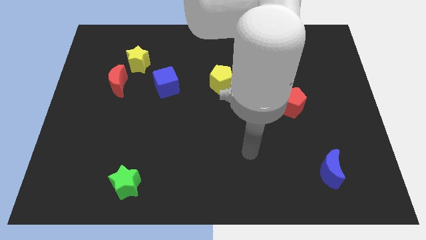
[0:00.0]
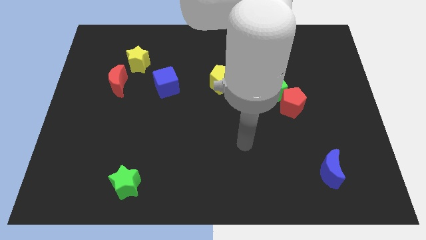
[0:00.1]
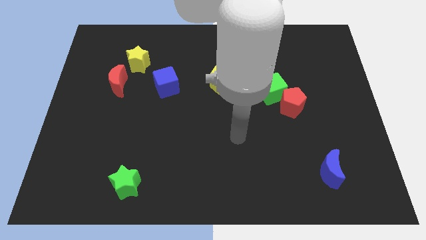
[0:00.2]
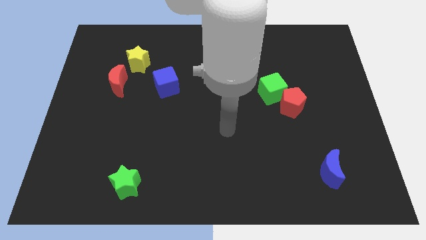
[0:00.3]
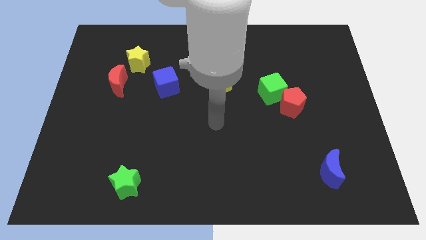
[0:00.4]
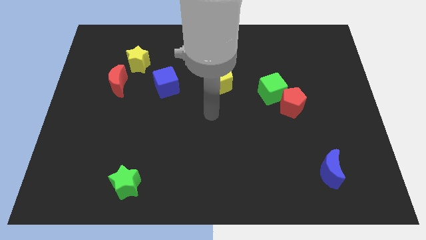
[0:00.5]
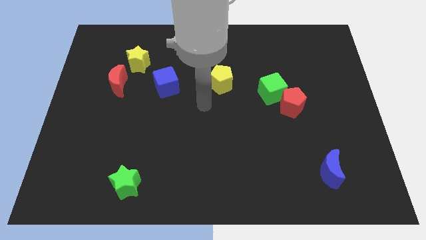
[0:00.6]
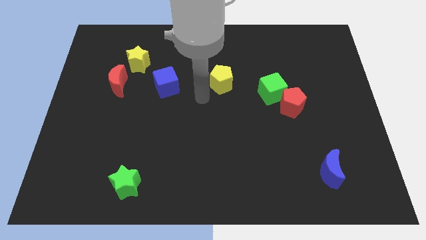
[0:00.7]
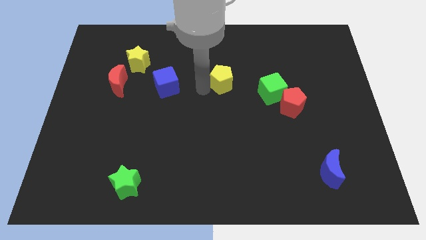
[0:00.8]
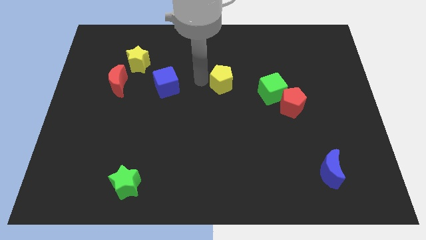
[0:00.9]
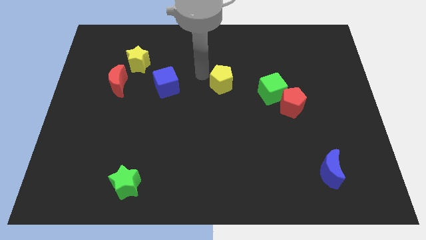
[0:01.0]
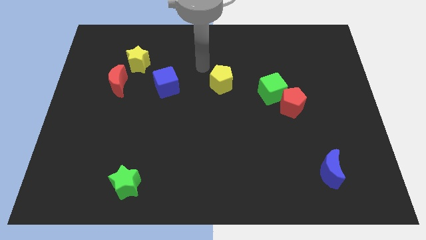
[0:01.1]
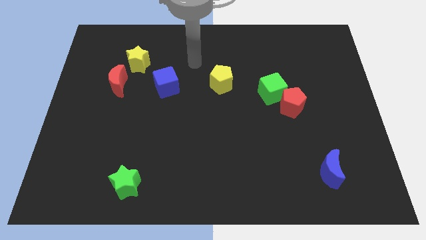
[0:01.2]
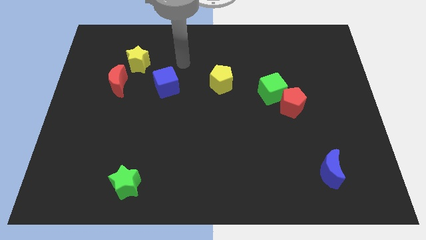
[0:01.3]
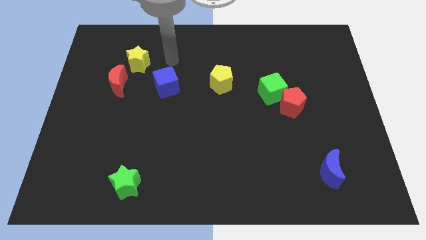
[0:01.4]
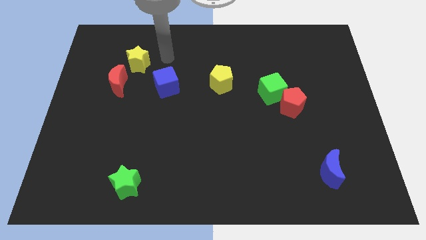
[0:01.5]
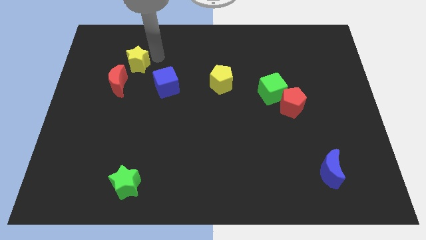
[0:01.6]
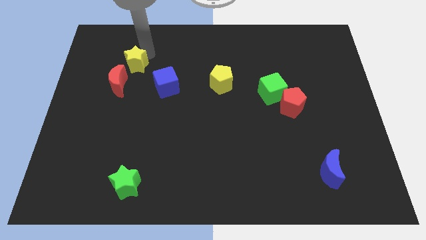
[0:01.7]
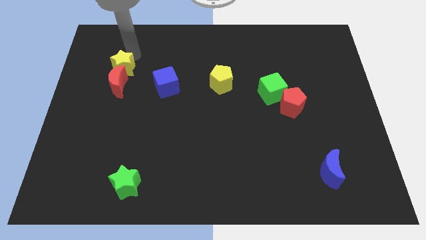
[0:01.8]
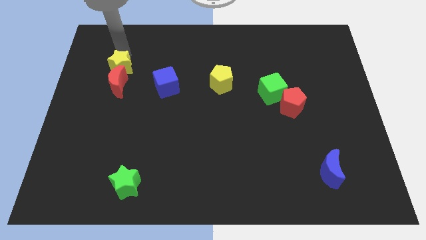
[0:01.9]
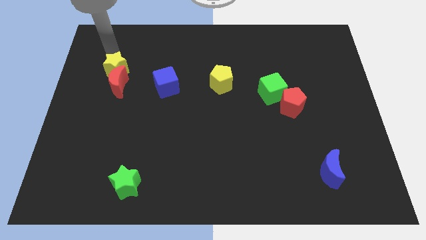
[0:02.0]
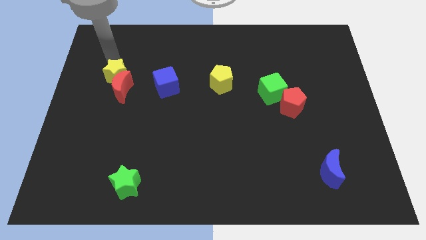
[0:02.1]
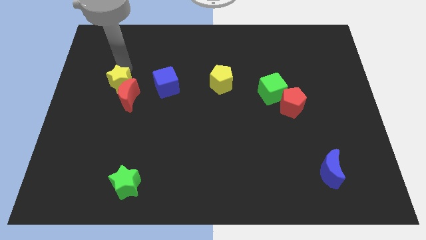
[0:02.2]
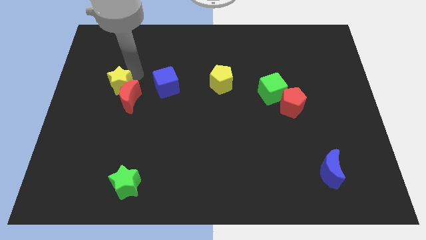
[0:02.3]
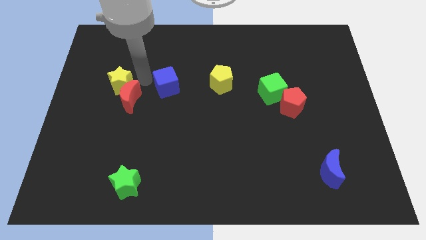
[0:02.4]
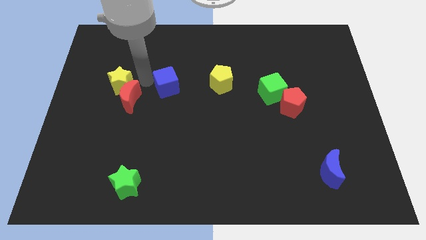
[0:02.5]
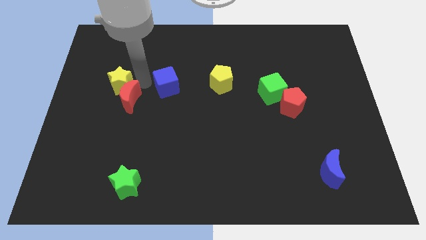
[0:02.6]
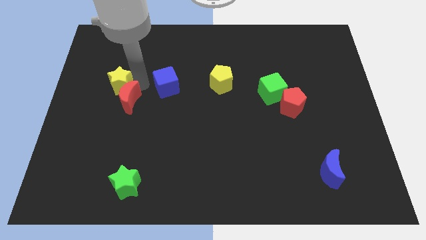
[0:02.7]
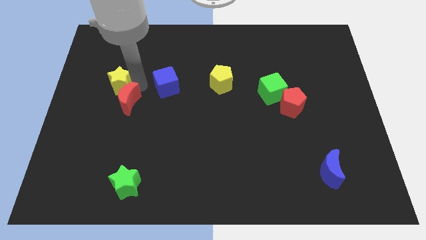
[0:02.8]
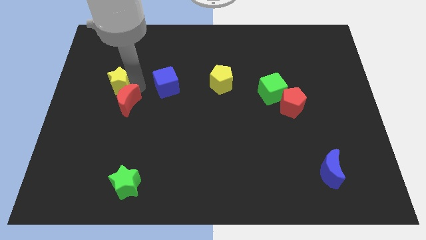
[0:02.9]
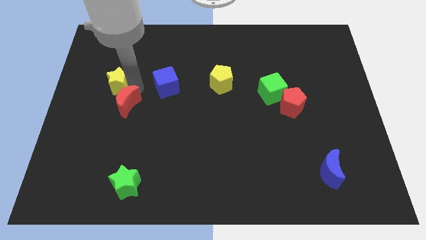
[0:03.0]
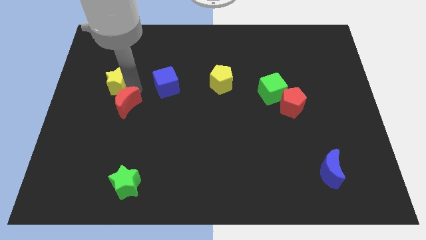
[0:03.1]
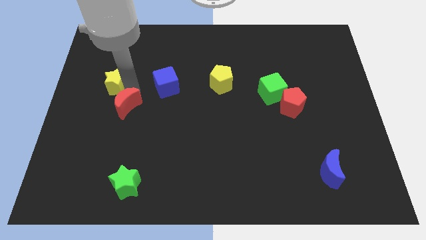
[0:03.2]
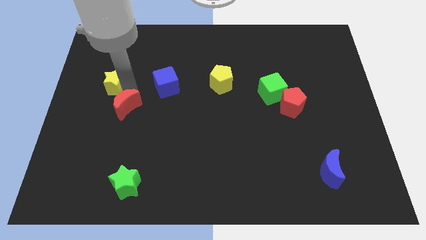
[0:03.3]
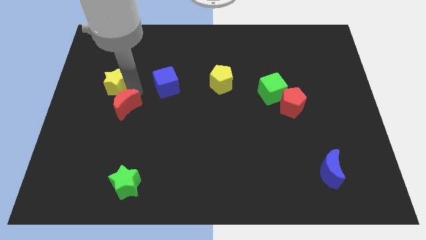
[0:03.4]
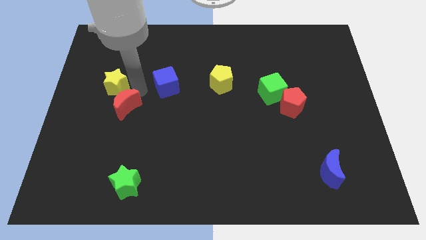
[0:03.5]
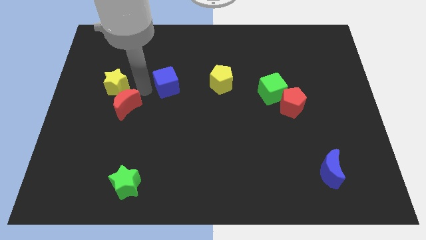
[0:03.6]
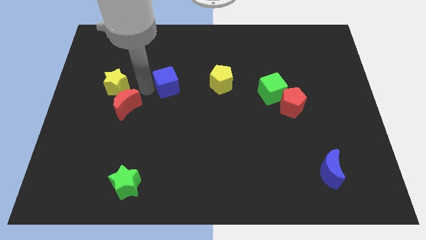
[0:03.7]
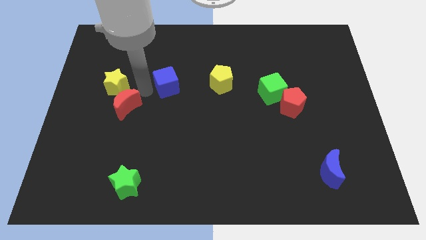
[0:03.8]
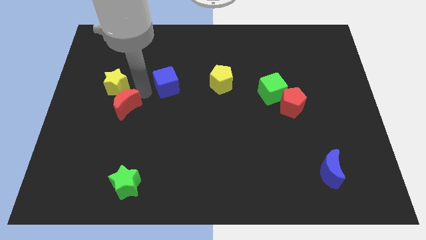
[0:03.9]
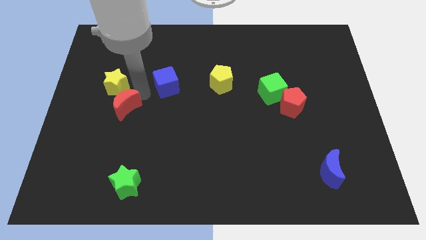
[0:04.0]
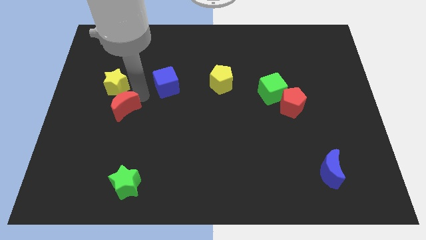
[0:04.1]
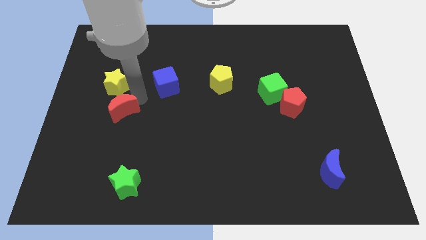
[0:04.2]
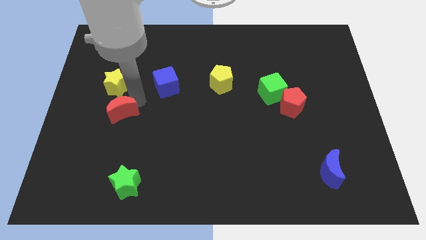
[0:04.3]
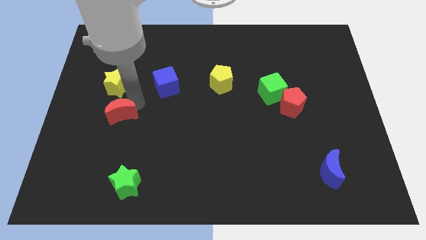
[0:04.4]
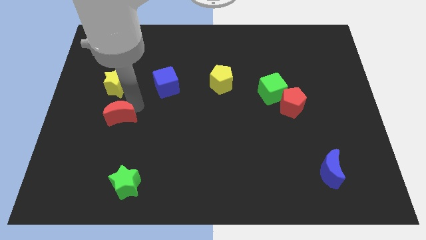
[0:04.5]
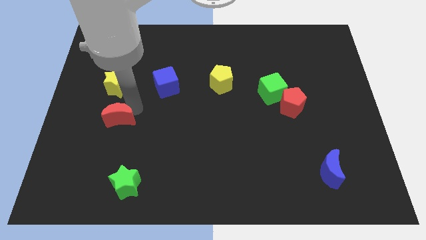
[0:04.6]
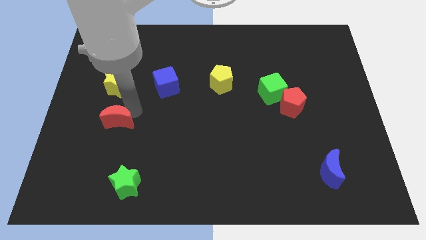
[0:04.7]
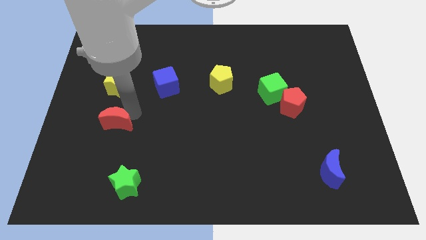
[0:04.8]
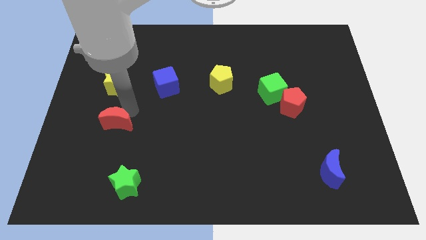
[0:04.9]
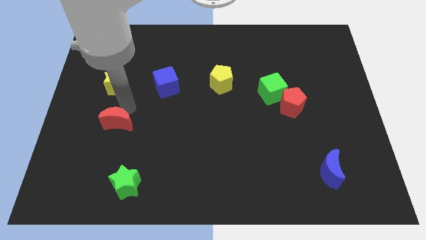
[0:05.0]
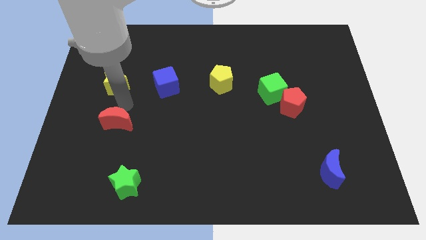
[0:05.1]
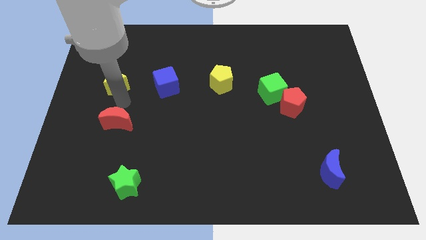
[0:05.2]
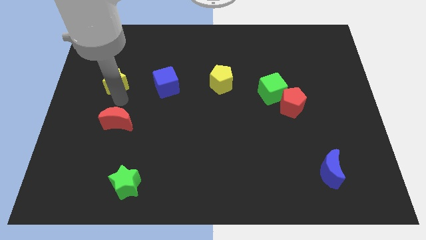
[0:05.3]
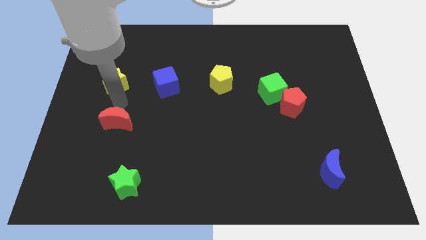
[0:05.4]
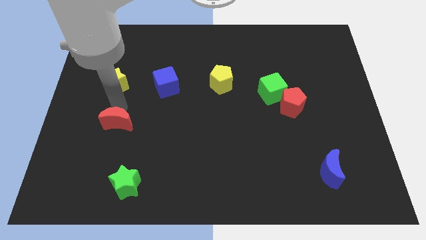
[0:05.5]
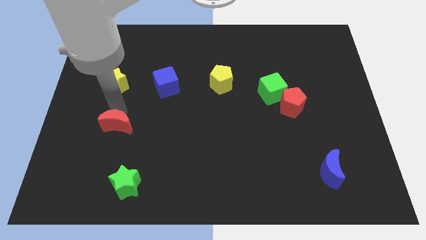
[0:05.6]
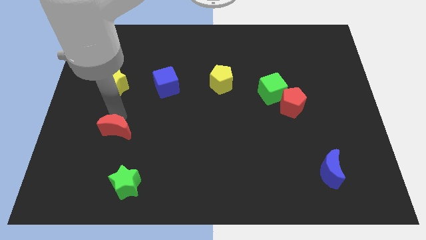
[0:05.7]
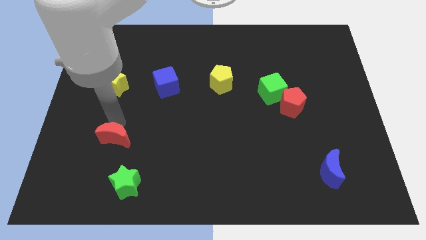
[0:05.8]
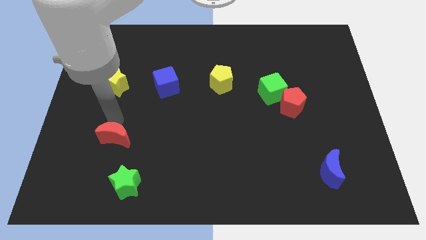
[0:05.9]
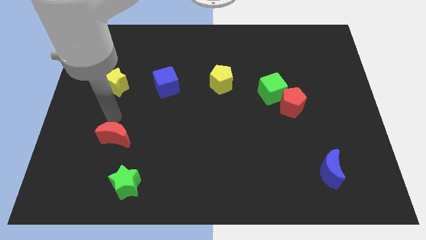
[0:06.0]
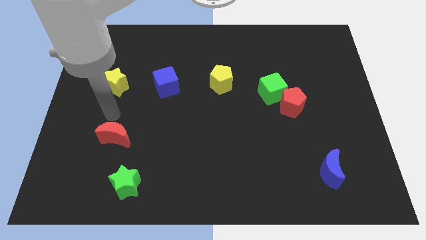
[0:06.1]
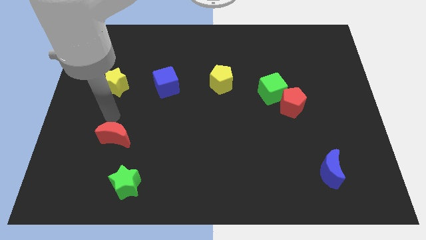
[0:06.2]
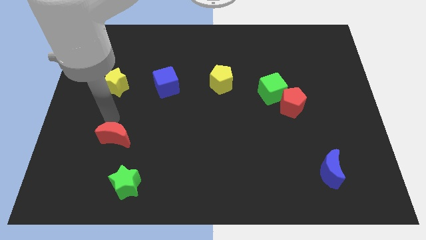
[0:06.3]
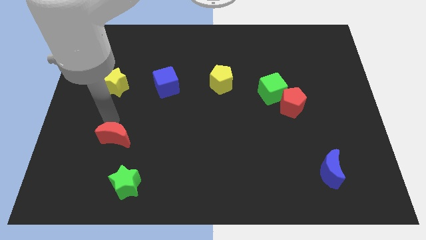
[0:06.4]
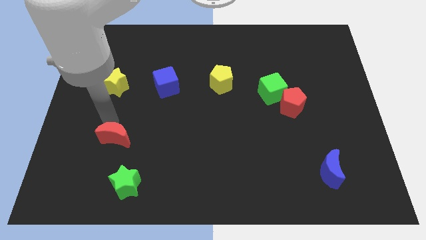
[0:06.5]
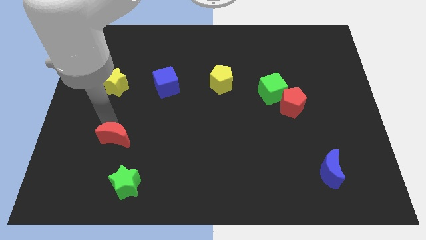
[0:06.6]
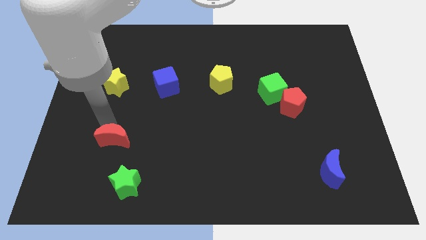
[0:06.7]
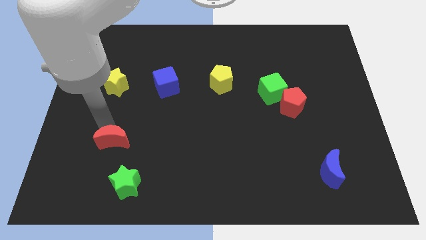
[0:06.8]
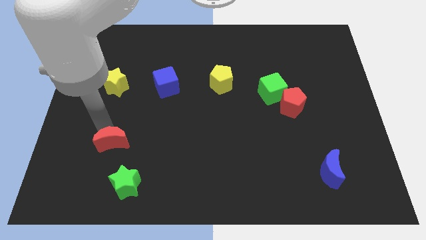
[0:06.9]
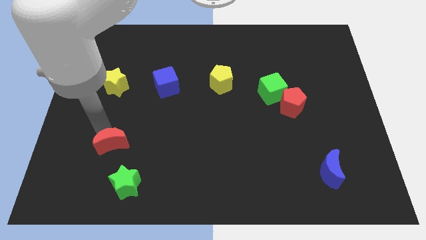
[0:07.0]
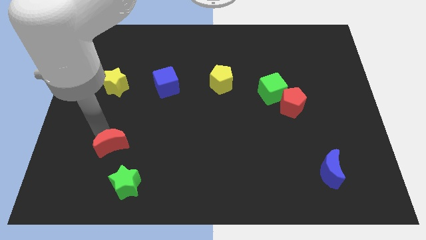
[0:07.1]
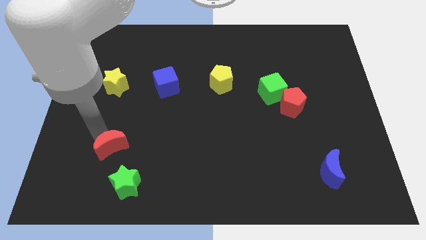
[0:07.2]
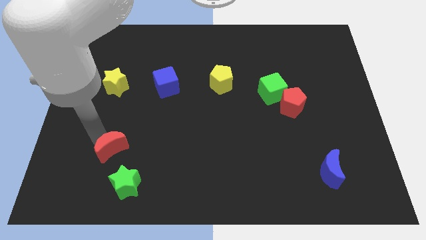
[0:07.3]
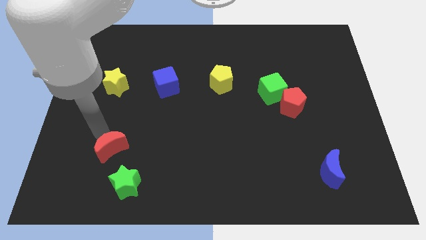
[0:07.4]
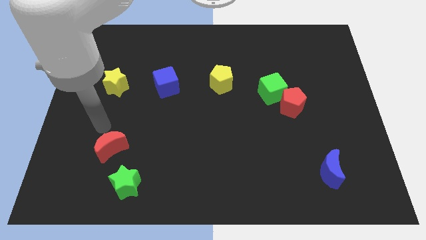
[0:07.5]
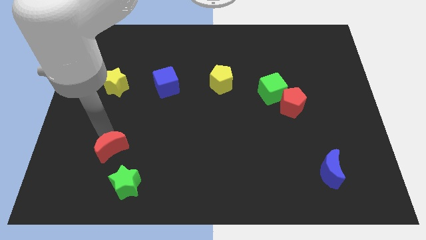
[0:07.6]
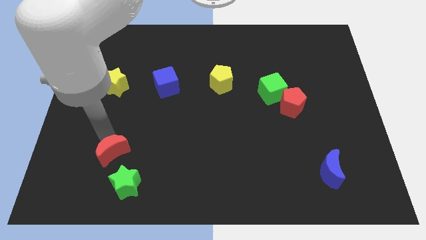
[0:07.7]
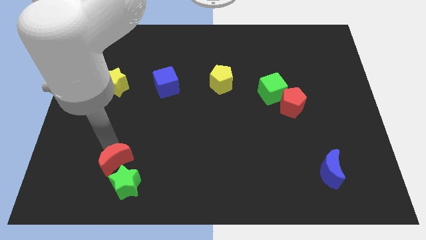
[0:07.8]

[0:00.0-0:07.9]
put the red moon to the green star
